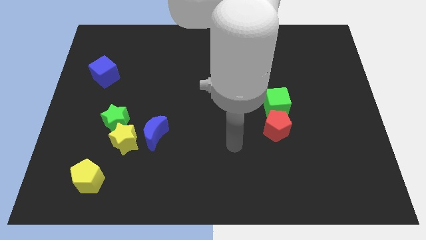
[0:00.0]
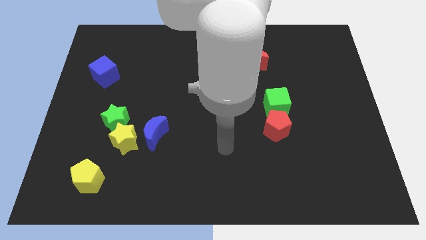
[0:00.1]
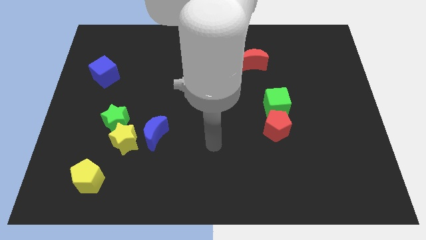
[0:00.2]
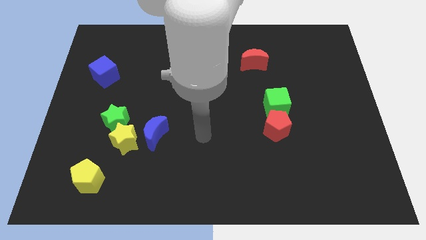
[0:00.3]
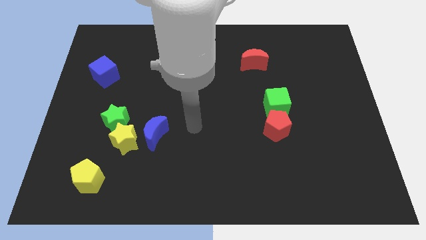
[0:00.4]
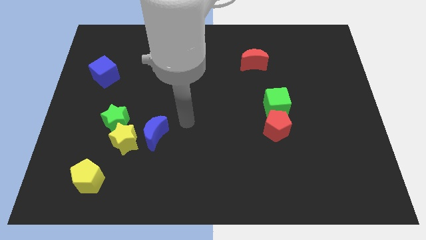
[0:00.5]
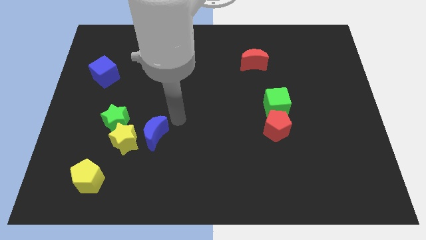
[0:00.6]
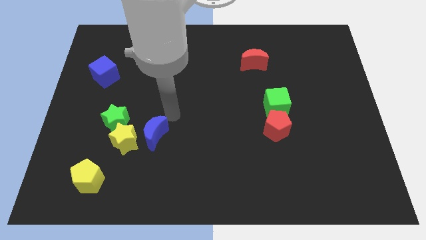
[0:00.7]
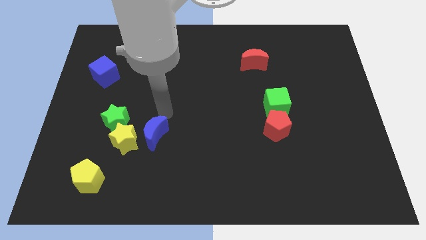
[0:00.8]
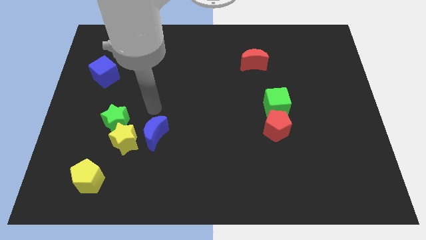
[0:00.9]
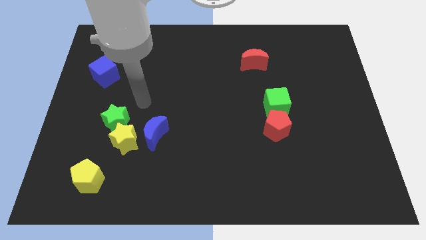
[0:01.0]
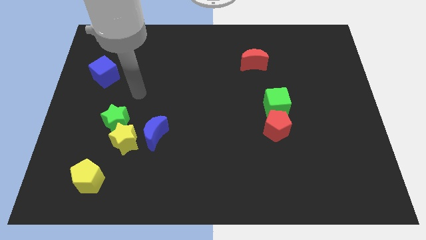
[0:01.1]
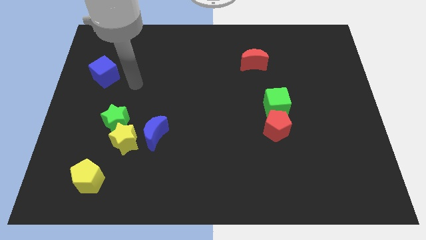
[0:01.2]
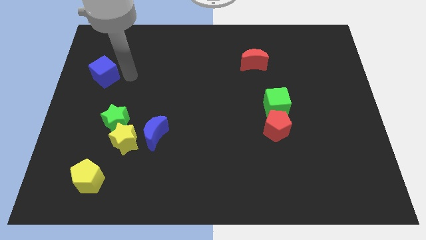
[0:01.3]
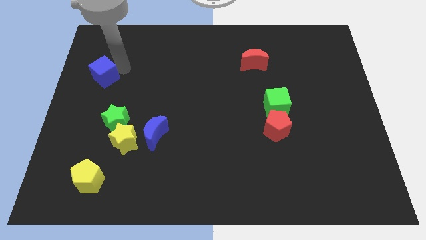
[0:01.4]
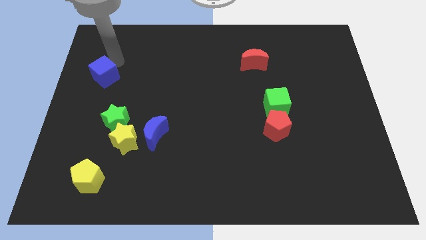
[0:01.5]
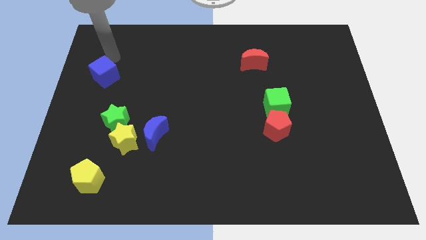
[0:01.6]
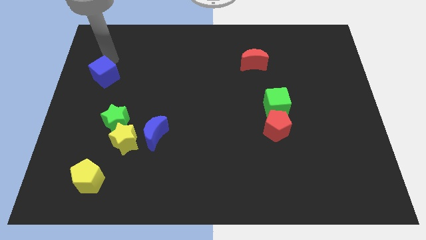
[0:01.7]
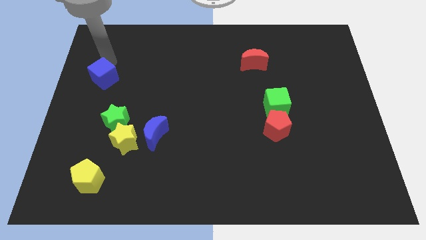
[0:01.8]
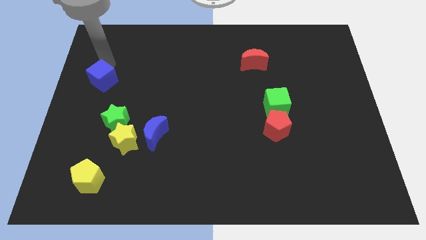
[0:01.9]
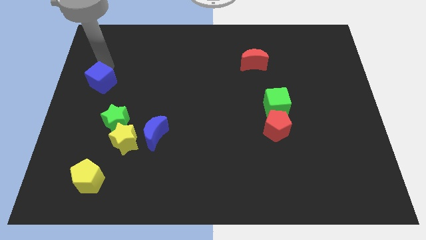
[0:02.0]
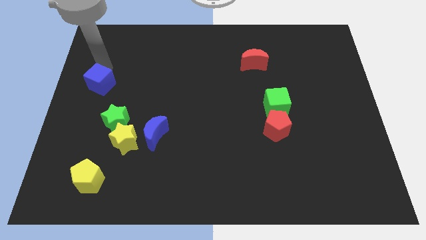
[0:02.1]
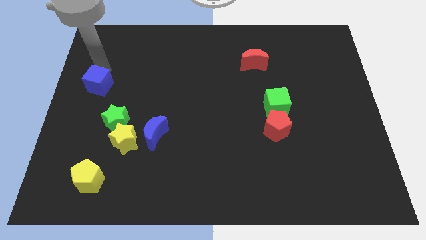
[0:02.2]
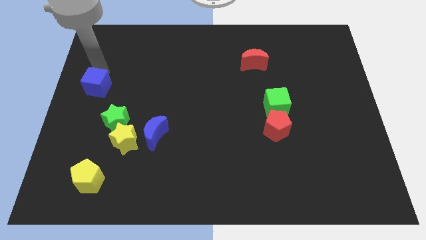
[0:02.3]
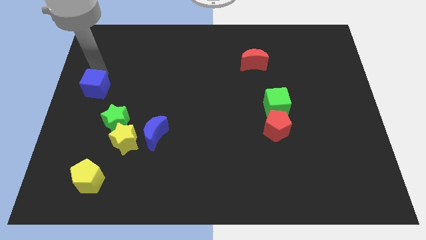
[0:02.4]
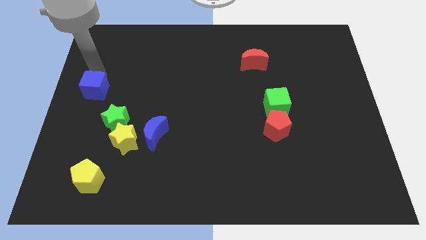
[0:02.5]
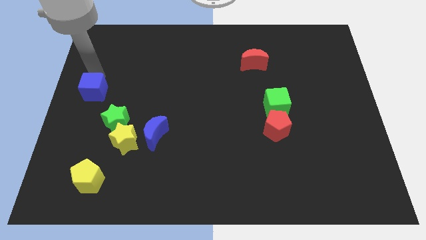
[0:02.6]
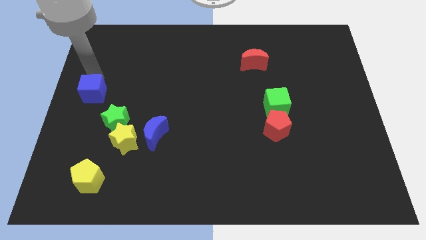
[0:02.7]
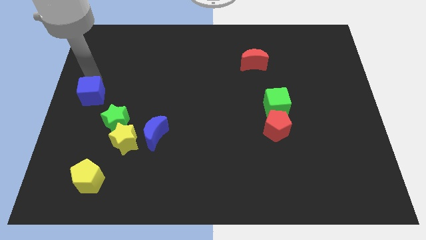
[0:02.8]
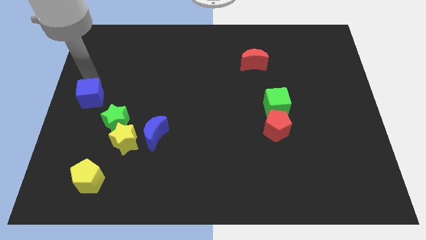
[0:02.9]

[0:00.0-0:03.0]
slightly move the blue cube downwards

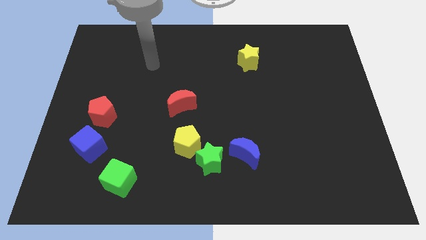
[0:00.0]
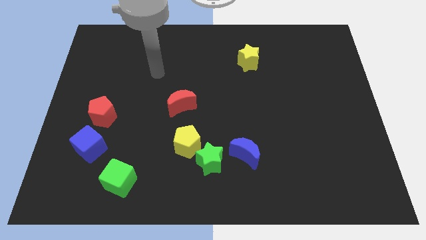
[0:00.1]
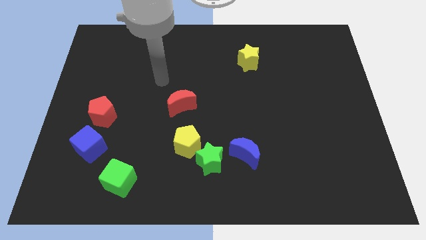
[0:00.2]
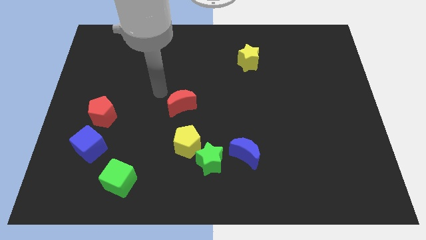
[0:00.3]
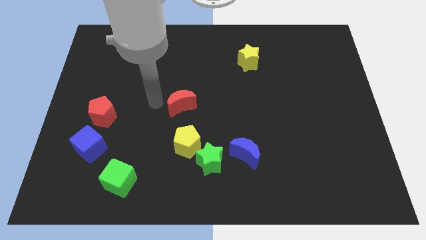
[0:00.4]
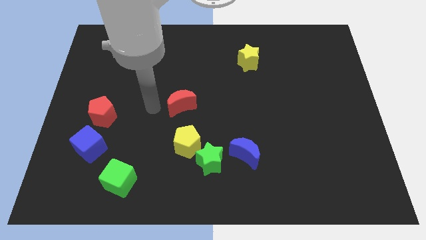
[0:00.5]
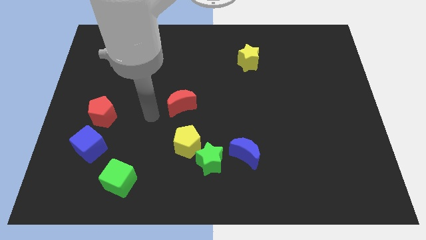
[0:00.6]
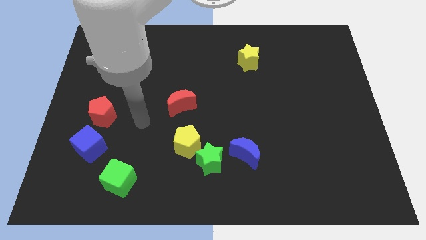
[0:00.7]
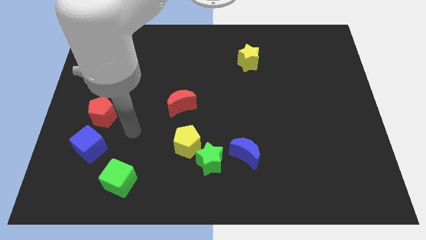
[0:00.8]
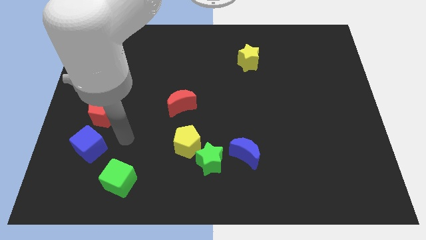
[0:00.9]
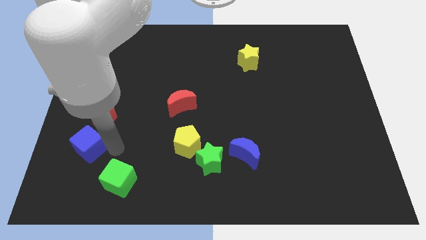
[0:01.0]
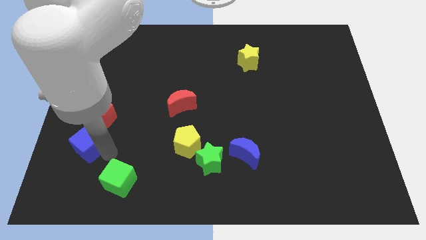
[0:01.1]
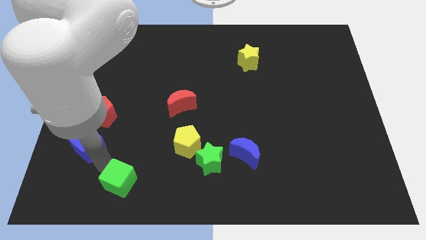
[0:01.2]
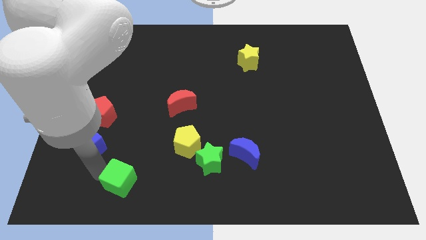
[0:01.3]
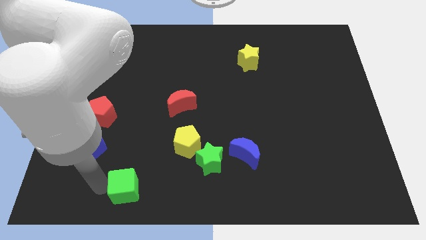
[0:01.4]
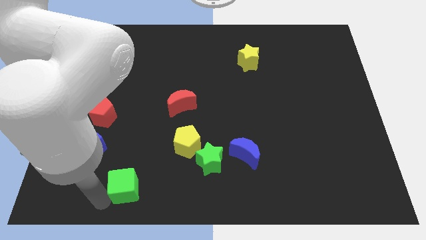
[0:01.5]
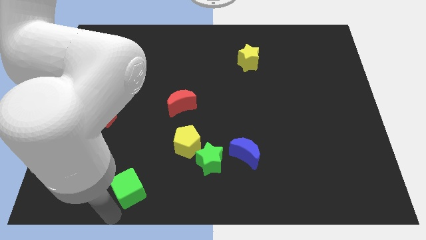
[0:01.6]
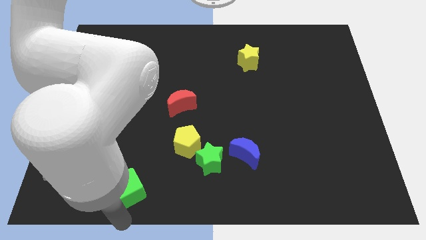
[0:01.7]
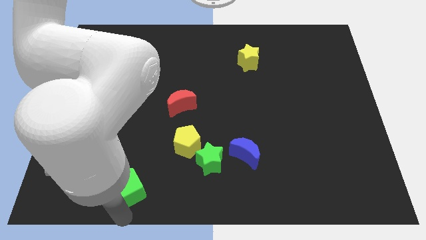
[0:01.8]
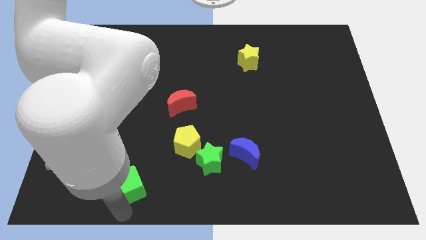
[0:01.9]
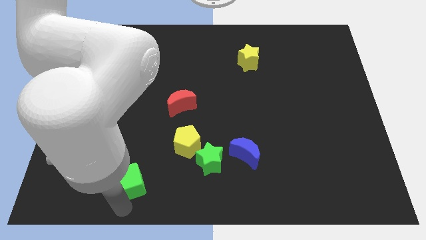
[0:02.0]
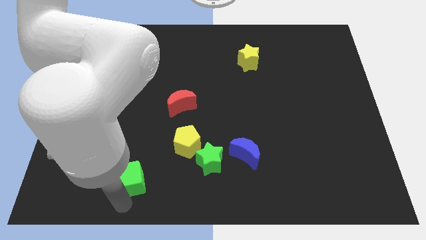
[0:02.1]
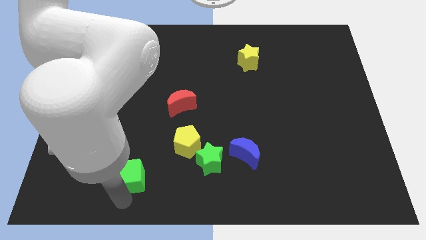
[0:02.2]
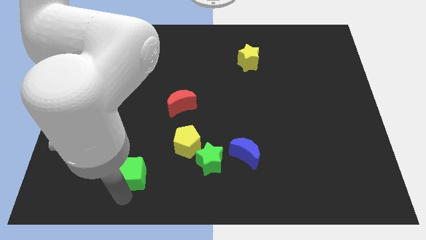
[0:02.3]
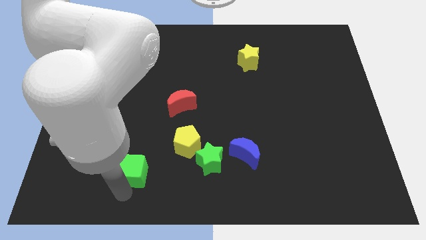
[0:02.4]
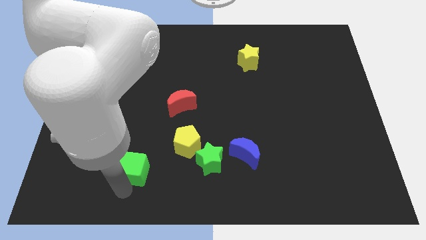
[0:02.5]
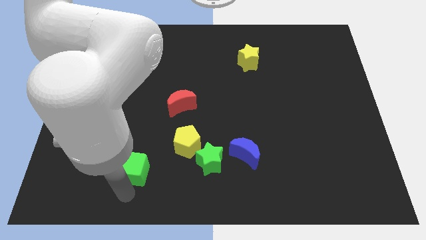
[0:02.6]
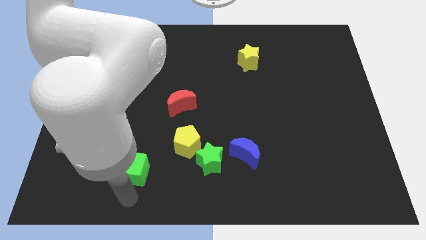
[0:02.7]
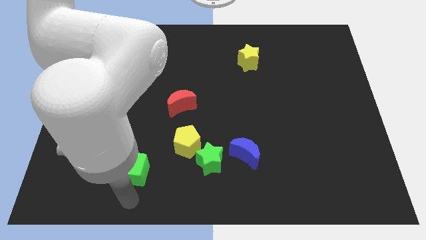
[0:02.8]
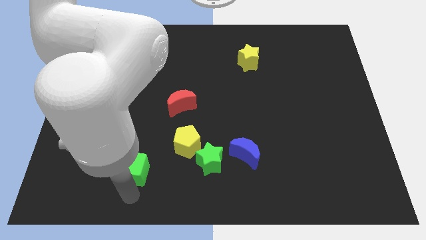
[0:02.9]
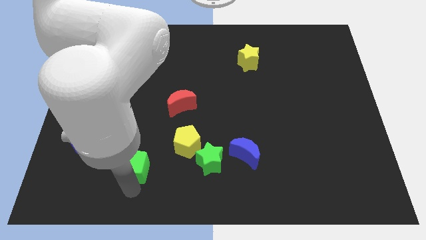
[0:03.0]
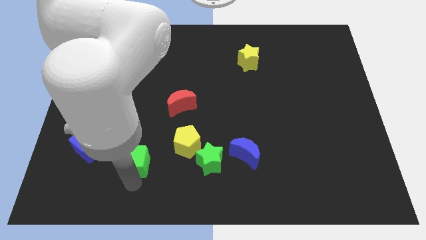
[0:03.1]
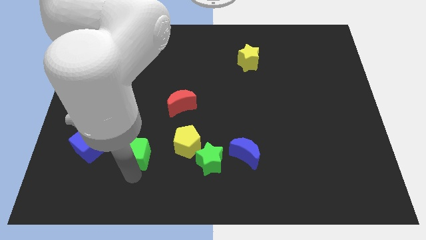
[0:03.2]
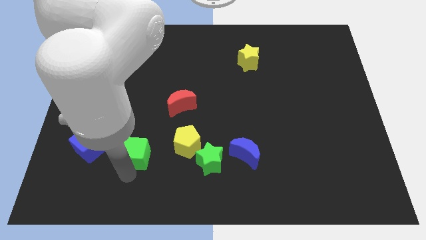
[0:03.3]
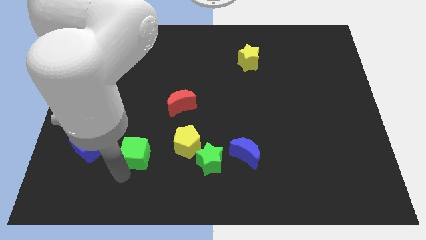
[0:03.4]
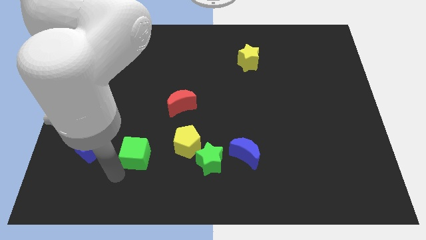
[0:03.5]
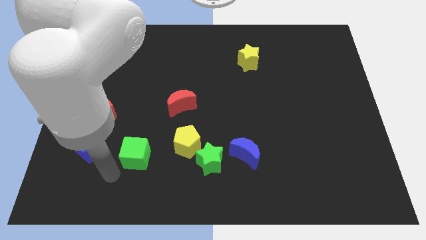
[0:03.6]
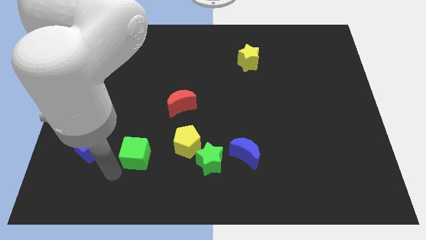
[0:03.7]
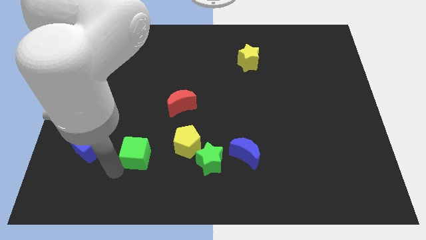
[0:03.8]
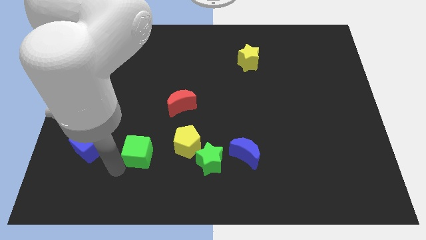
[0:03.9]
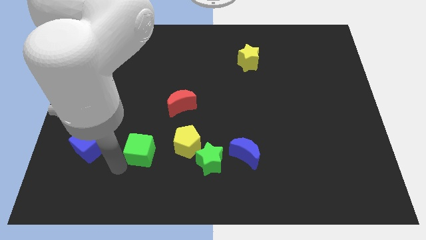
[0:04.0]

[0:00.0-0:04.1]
move the green cube slightly upwards and then to the right

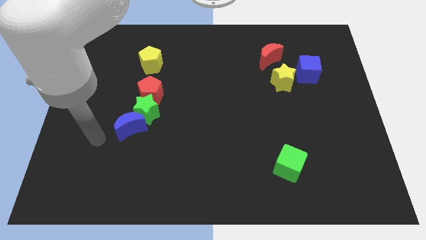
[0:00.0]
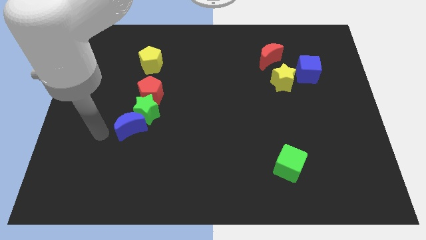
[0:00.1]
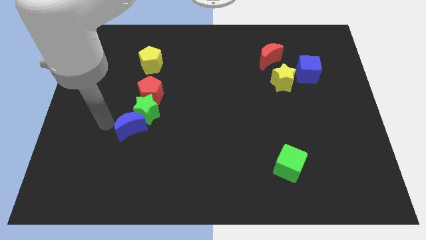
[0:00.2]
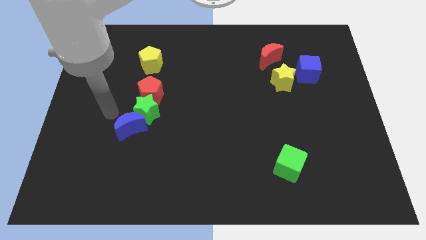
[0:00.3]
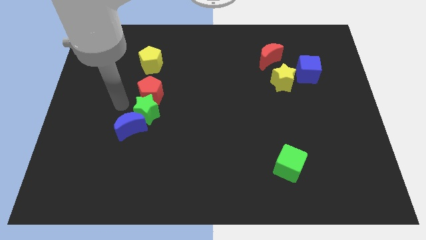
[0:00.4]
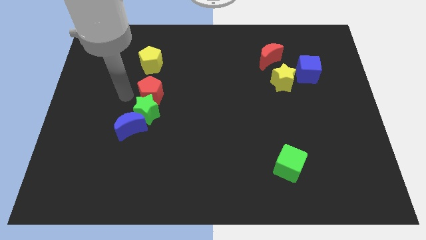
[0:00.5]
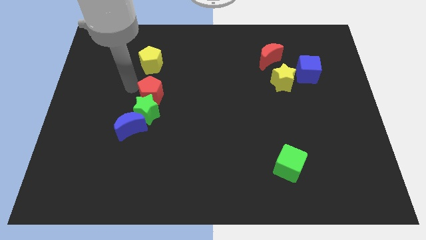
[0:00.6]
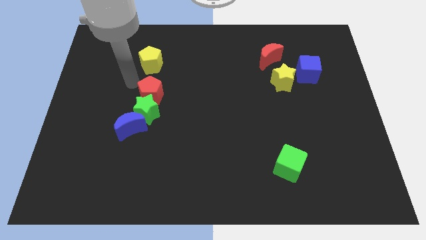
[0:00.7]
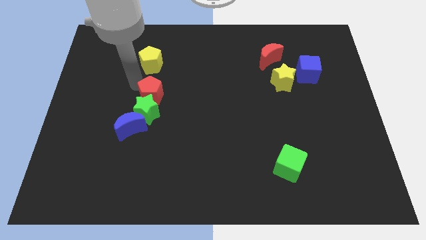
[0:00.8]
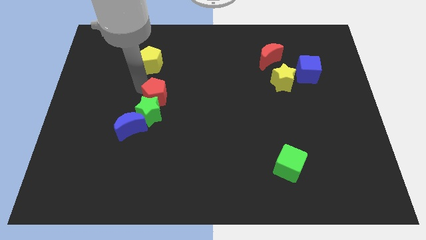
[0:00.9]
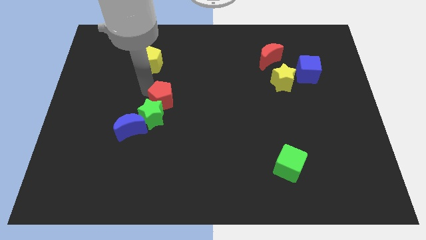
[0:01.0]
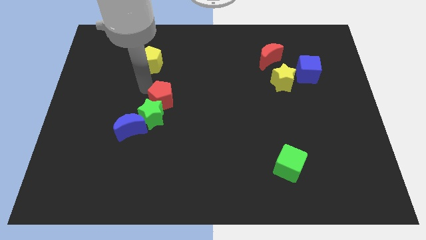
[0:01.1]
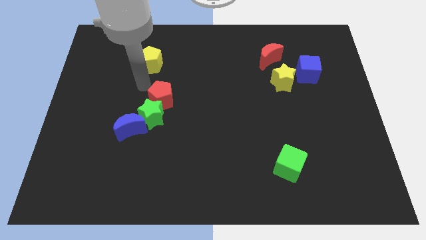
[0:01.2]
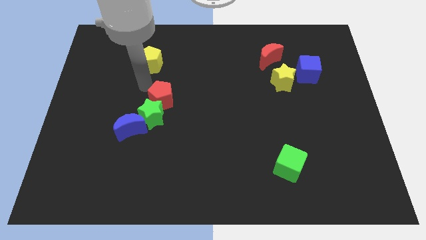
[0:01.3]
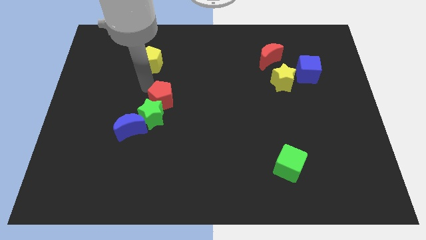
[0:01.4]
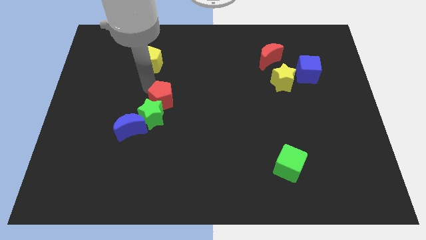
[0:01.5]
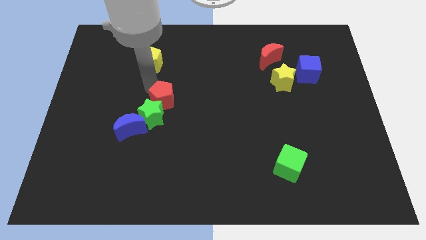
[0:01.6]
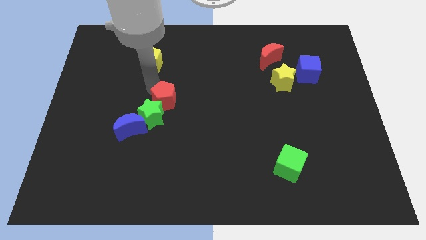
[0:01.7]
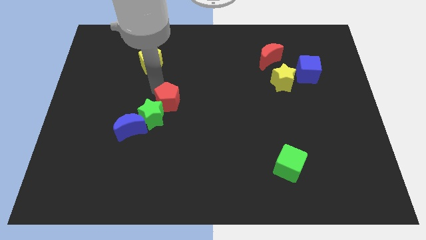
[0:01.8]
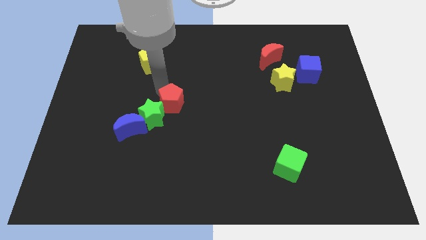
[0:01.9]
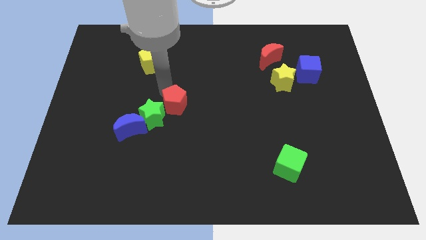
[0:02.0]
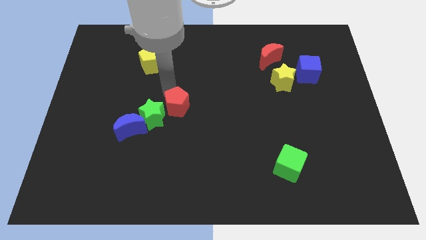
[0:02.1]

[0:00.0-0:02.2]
slide the red pentagon slightly downwards and then right
